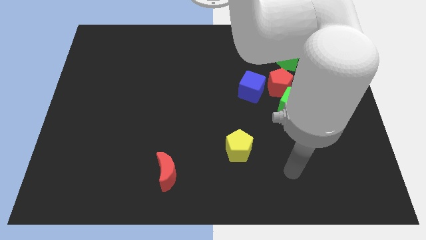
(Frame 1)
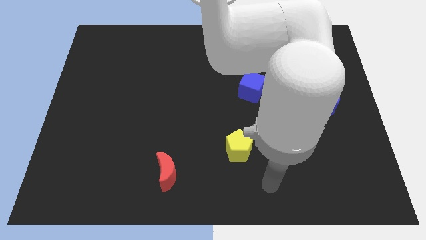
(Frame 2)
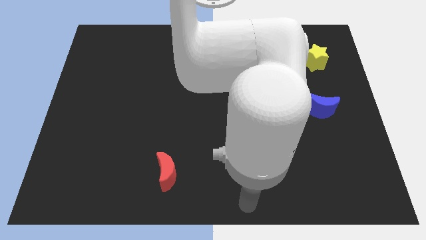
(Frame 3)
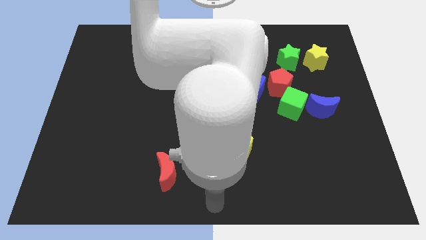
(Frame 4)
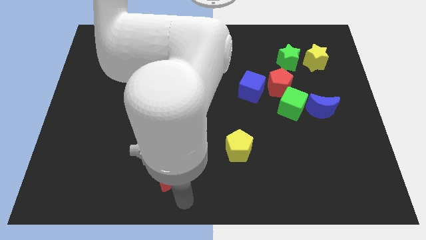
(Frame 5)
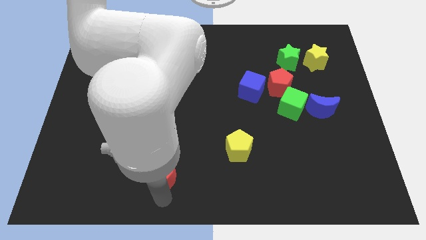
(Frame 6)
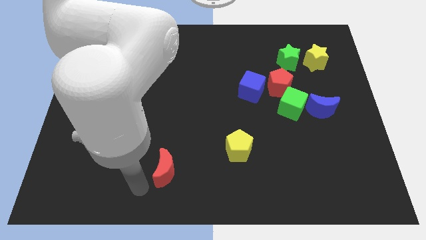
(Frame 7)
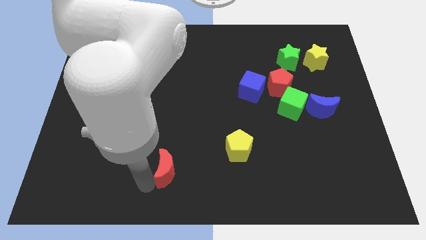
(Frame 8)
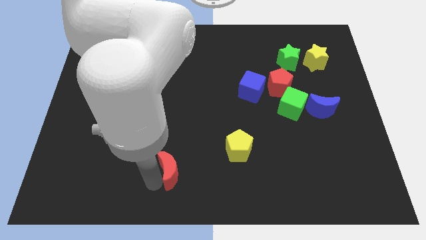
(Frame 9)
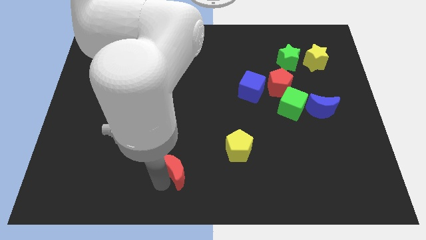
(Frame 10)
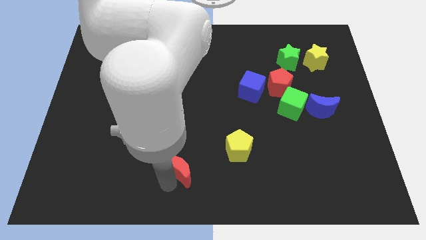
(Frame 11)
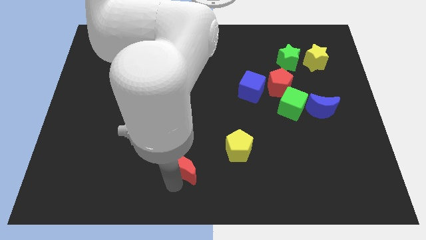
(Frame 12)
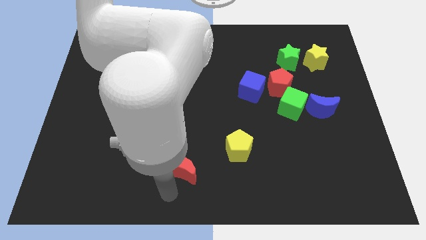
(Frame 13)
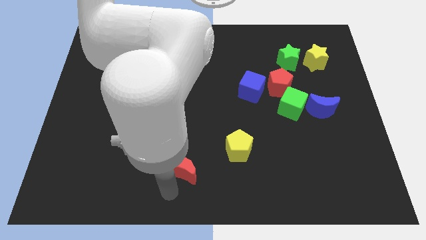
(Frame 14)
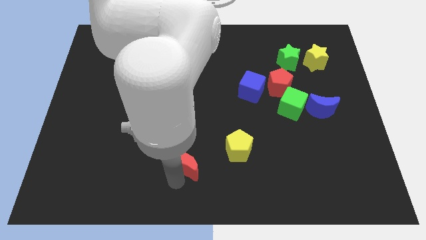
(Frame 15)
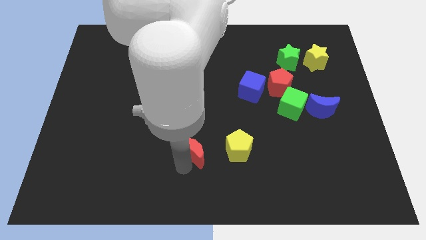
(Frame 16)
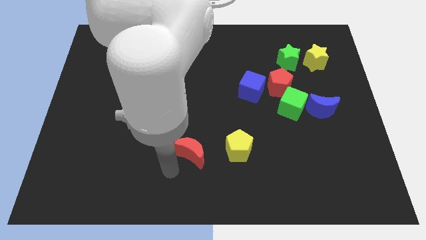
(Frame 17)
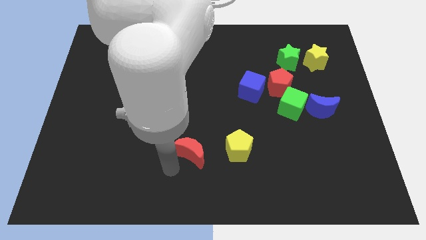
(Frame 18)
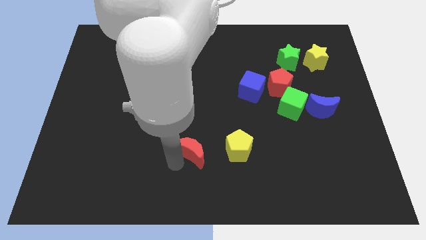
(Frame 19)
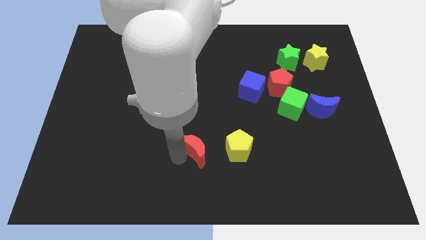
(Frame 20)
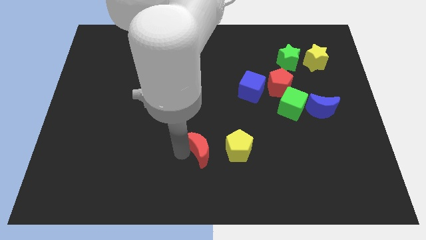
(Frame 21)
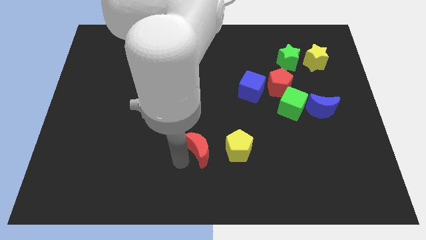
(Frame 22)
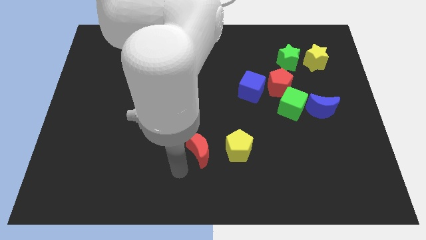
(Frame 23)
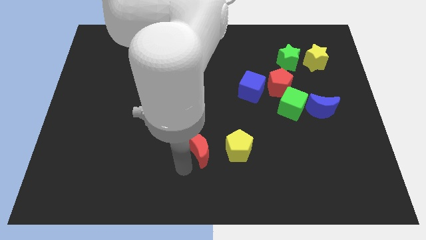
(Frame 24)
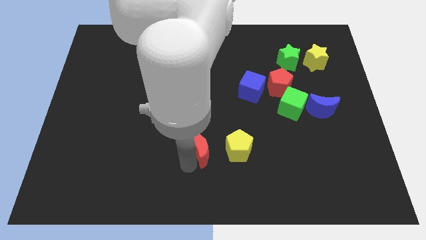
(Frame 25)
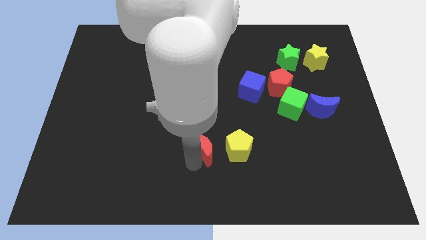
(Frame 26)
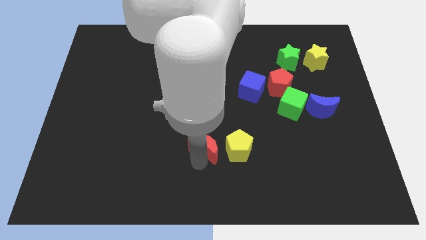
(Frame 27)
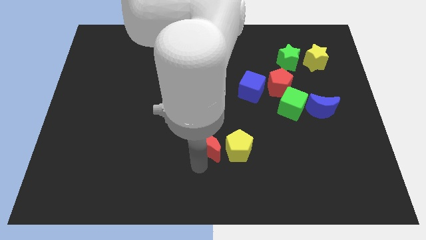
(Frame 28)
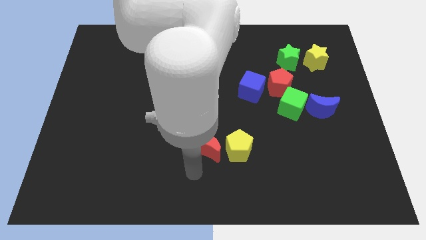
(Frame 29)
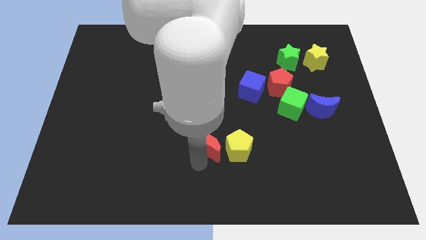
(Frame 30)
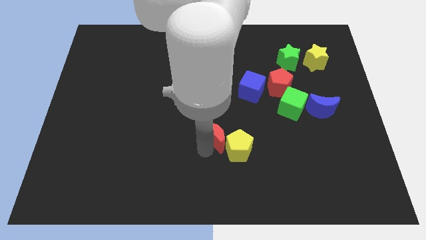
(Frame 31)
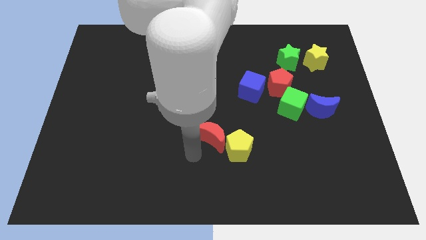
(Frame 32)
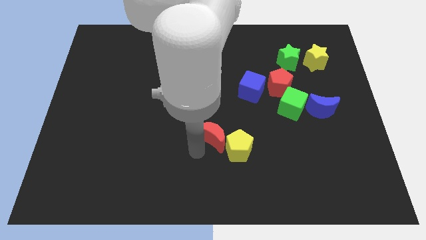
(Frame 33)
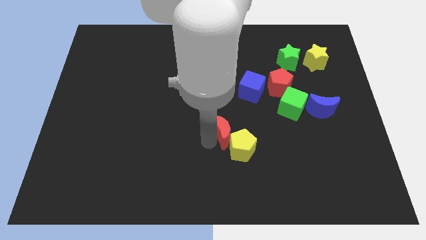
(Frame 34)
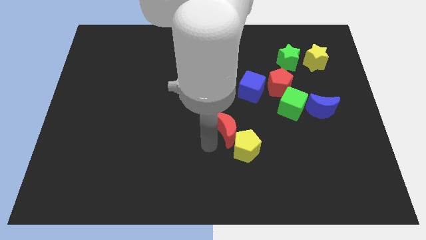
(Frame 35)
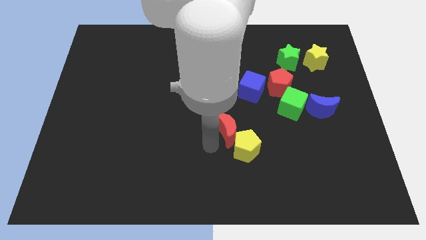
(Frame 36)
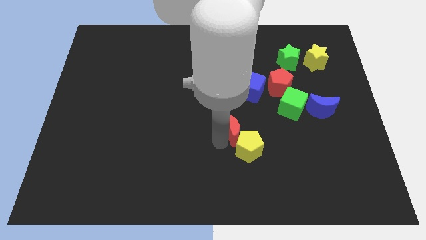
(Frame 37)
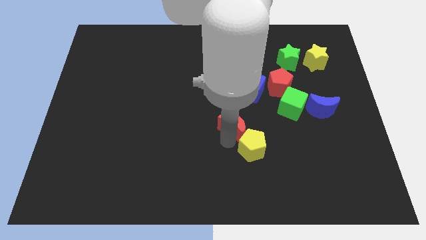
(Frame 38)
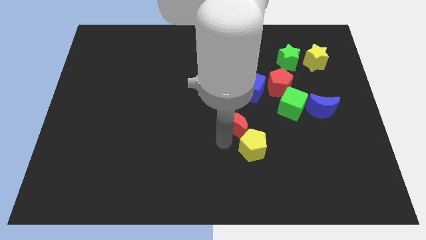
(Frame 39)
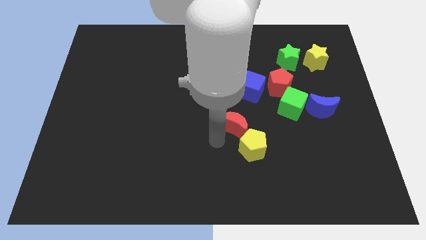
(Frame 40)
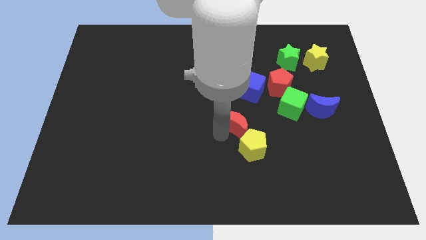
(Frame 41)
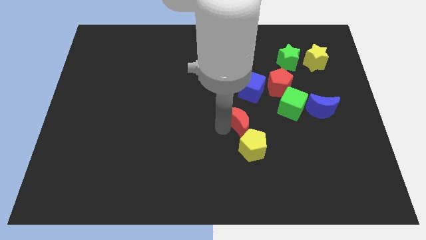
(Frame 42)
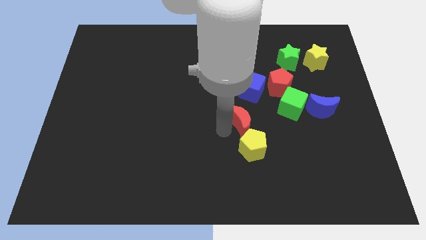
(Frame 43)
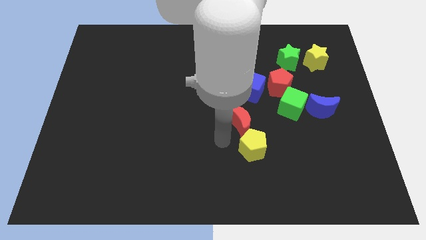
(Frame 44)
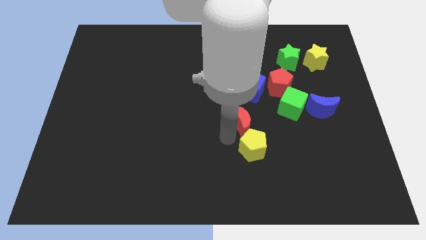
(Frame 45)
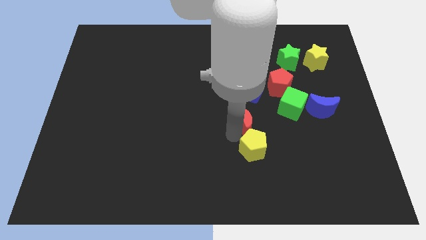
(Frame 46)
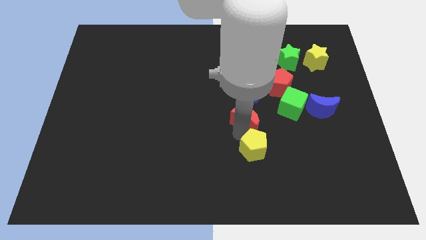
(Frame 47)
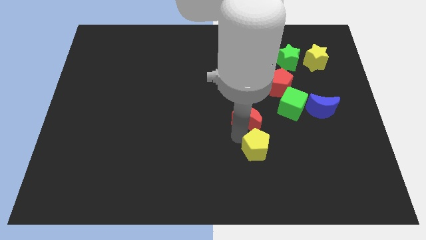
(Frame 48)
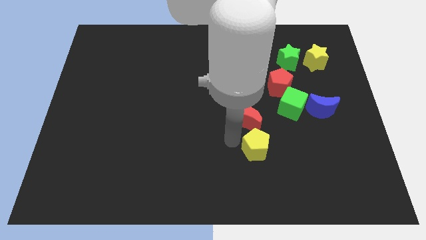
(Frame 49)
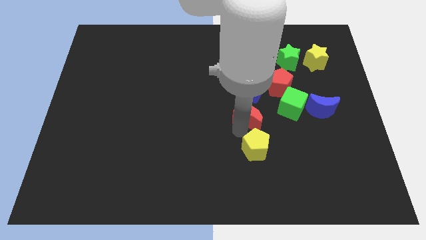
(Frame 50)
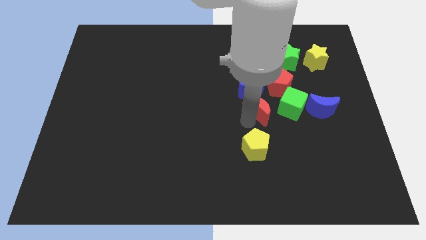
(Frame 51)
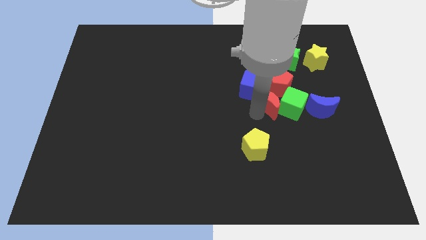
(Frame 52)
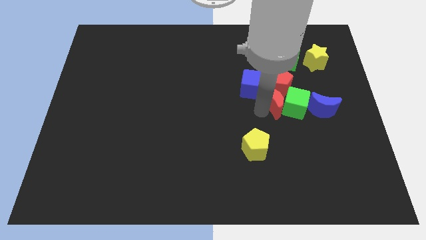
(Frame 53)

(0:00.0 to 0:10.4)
put the red moon close to the red pentagon
